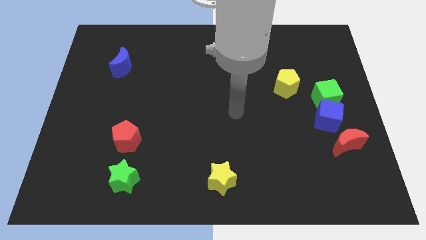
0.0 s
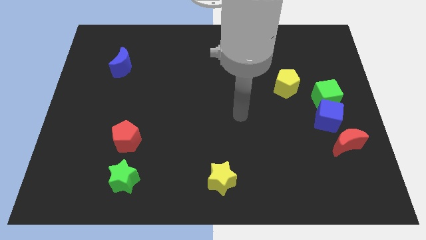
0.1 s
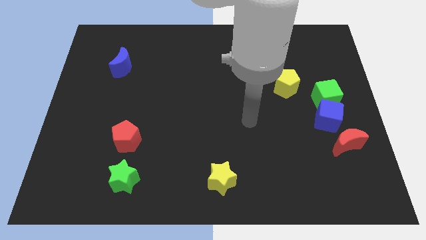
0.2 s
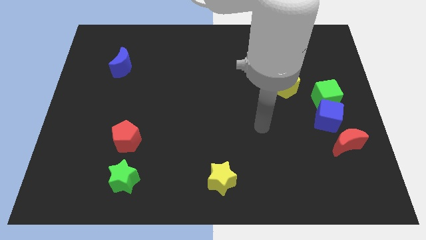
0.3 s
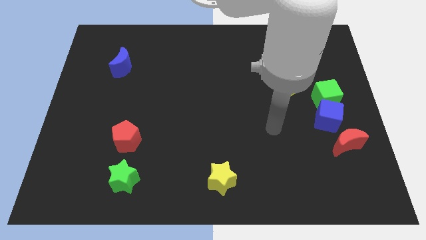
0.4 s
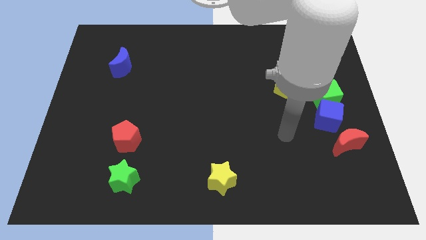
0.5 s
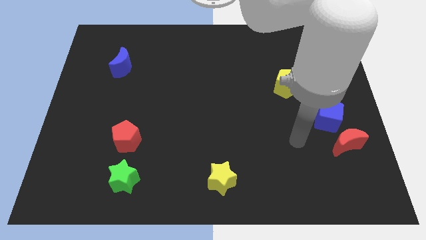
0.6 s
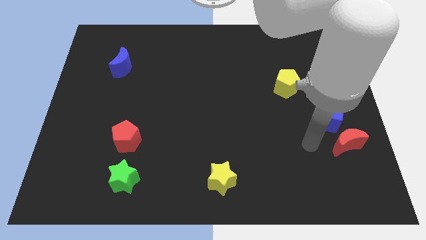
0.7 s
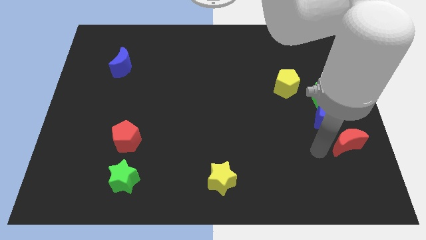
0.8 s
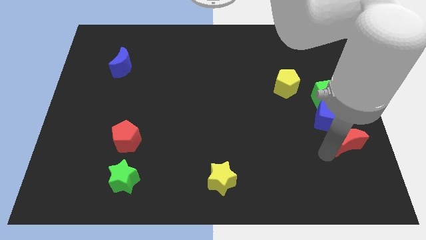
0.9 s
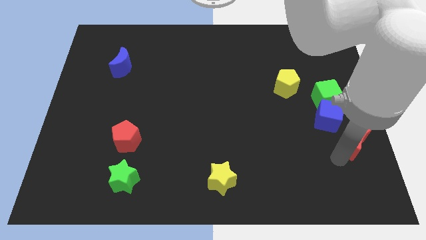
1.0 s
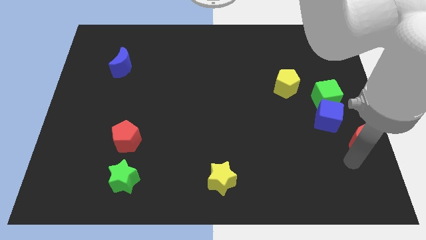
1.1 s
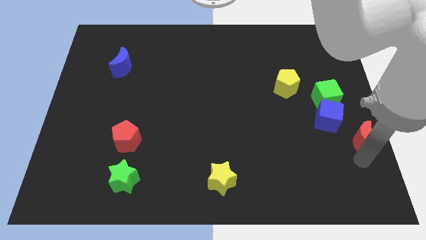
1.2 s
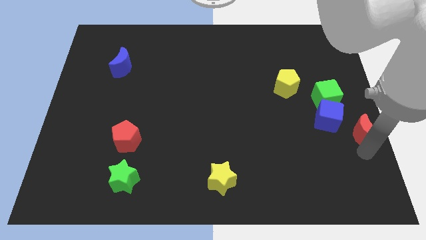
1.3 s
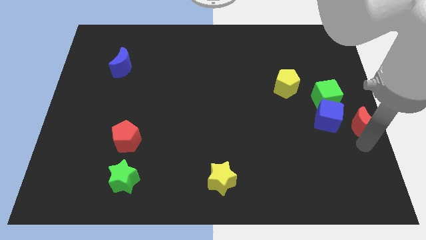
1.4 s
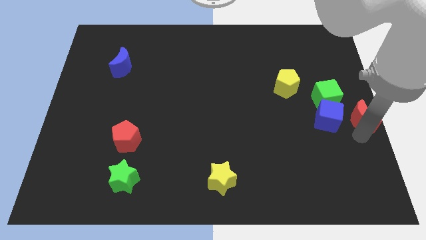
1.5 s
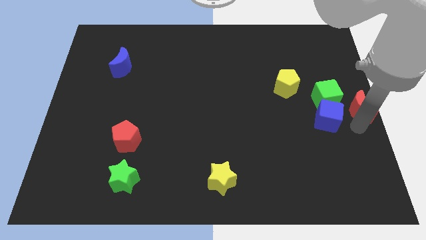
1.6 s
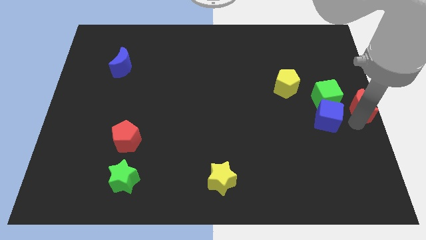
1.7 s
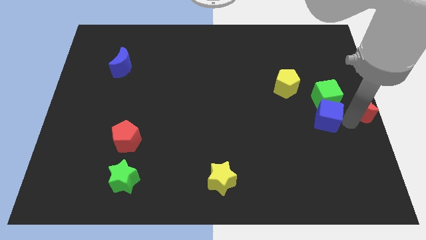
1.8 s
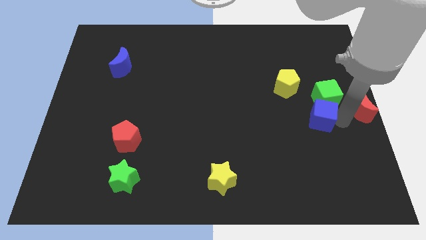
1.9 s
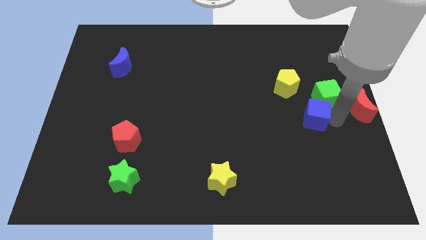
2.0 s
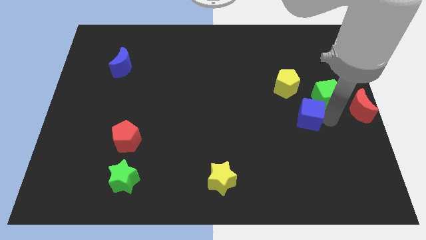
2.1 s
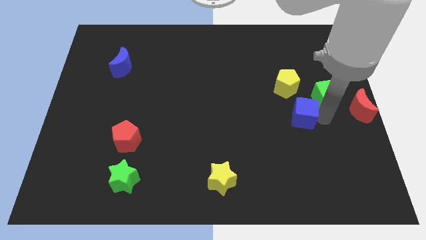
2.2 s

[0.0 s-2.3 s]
pull the blue cube apart from the green cube and red moon

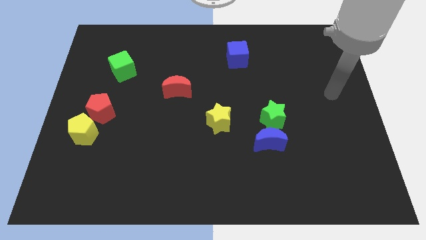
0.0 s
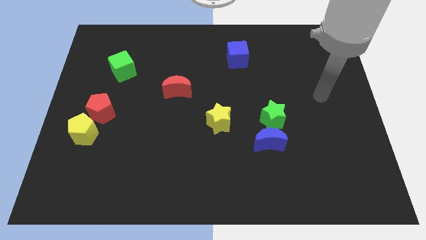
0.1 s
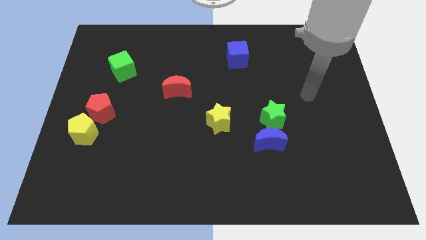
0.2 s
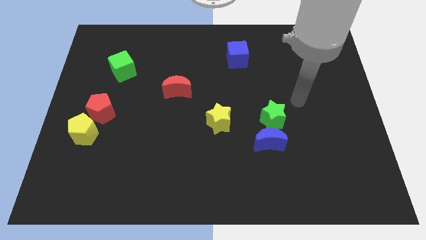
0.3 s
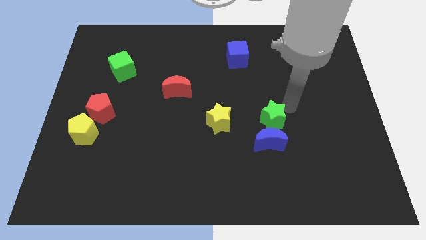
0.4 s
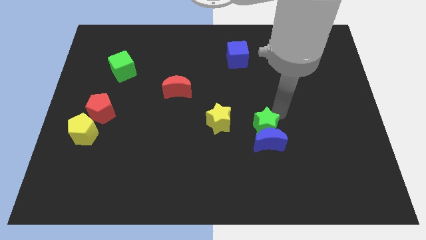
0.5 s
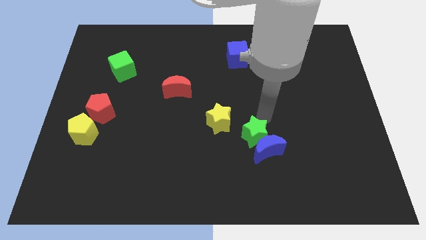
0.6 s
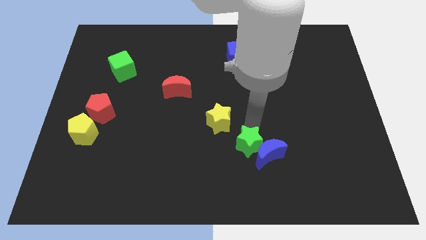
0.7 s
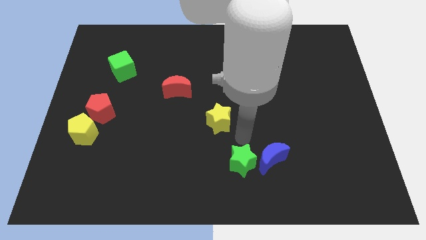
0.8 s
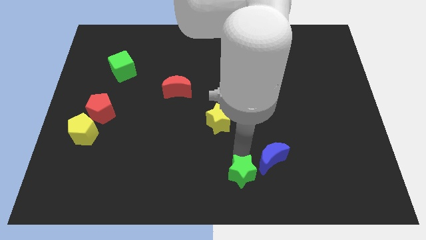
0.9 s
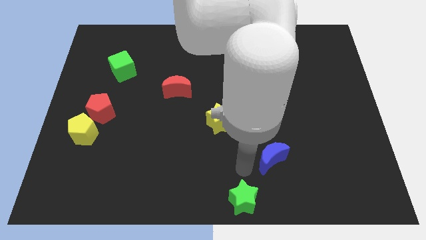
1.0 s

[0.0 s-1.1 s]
move the blue moon away from the green star

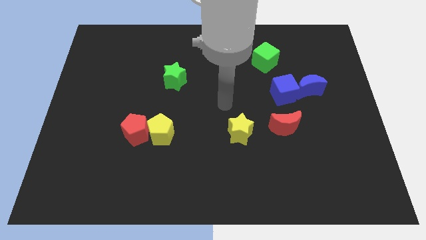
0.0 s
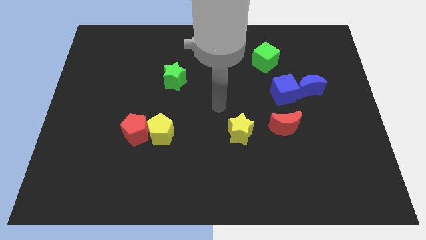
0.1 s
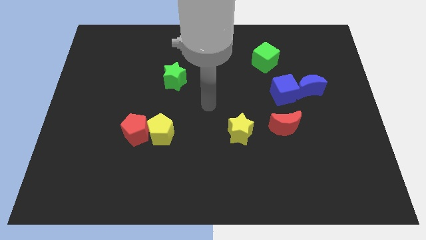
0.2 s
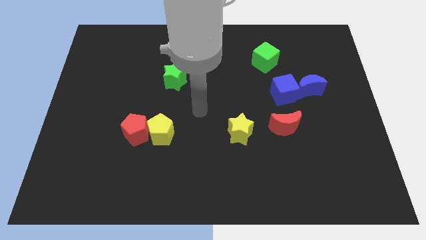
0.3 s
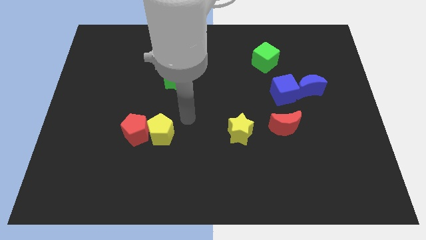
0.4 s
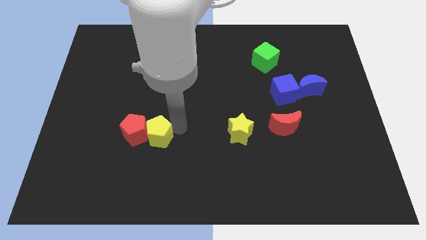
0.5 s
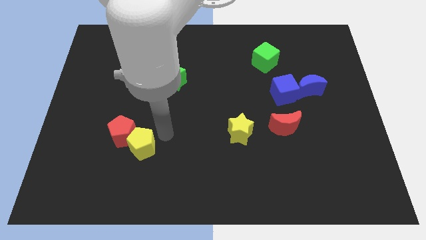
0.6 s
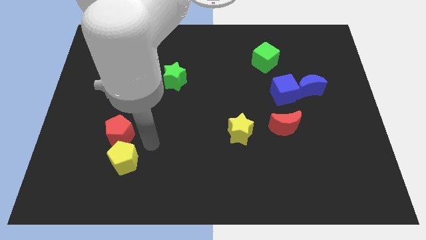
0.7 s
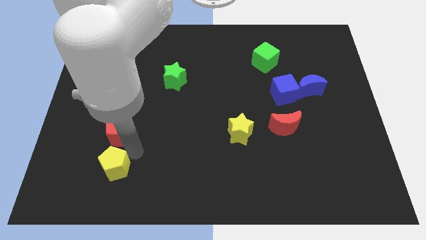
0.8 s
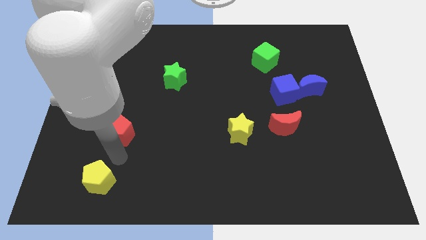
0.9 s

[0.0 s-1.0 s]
pull the red pentagon apart from the yellow pentagon

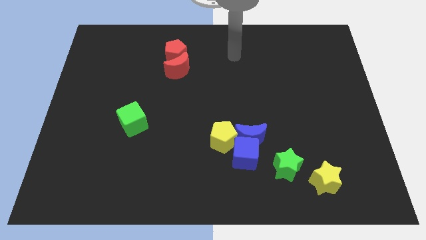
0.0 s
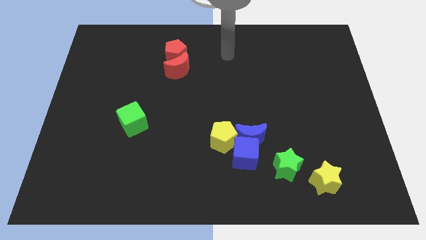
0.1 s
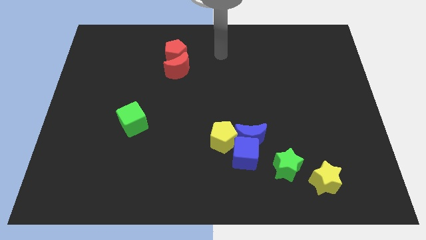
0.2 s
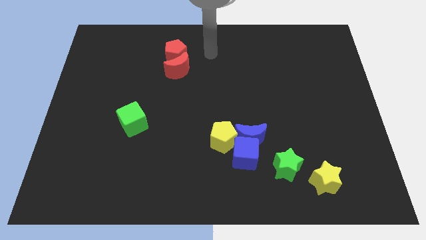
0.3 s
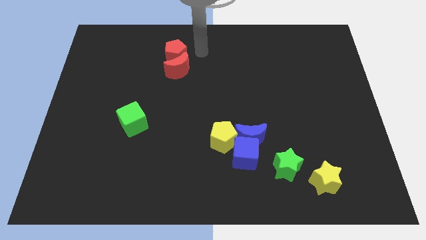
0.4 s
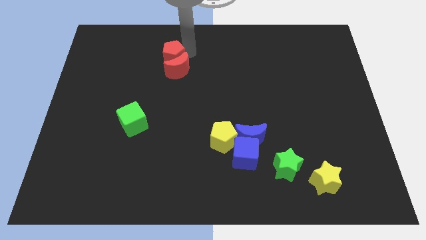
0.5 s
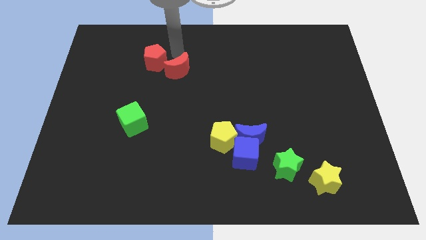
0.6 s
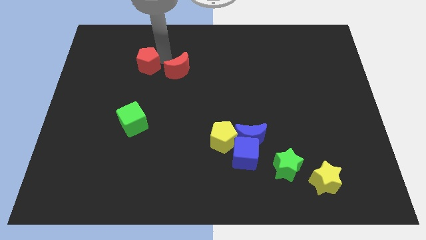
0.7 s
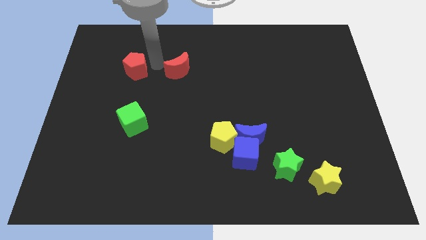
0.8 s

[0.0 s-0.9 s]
move the red moon away from the red pentagon

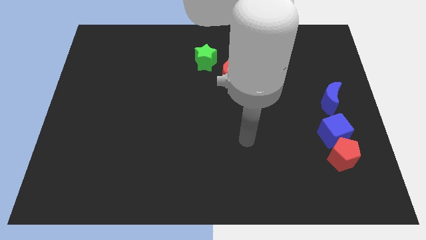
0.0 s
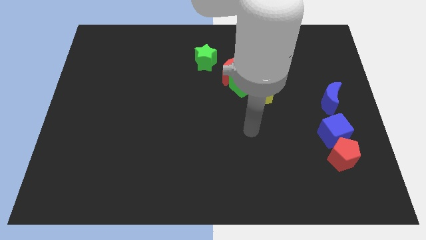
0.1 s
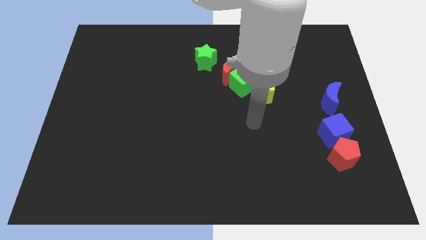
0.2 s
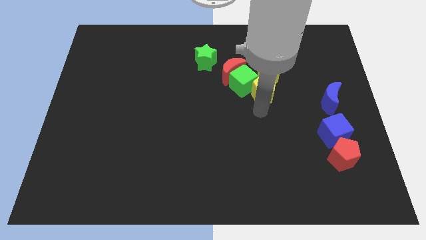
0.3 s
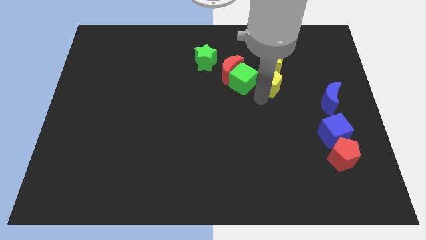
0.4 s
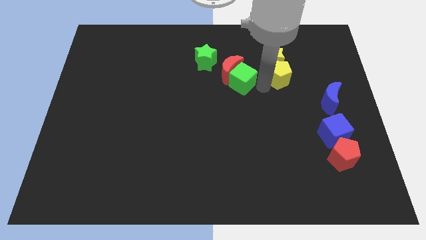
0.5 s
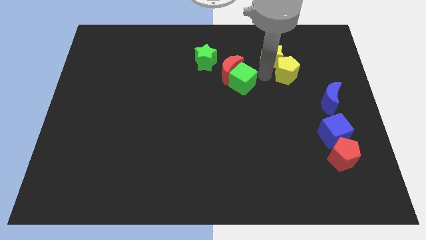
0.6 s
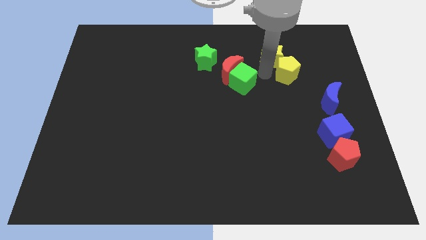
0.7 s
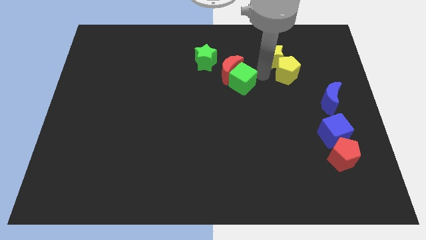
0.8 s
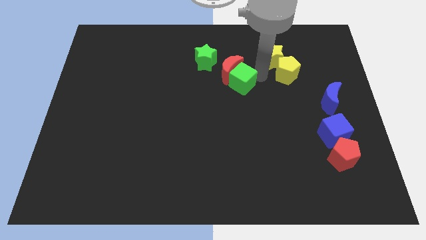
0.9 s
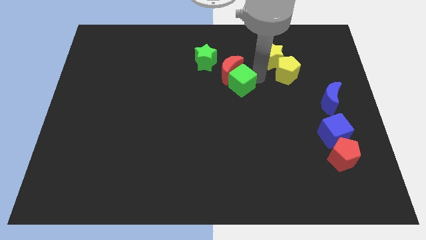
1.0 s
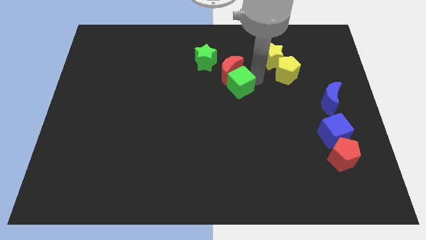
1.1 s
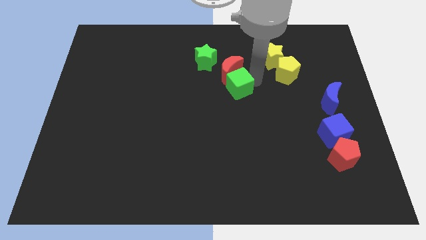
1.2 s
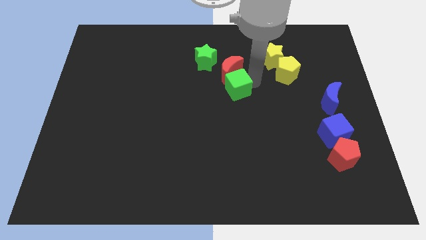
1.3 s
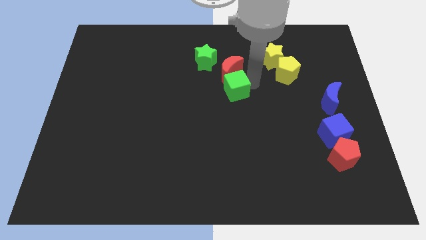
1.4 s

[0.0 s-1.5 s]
move the green cube away from the clump

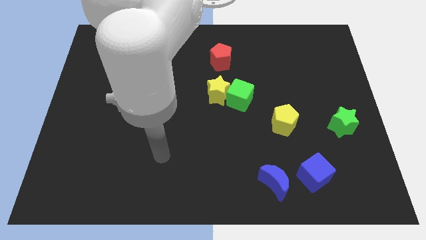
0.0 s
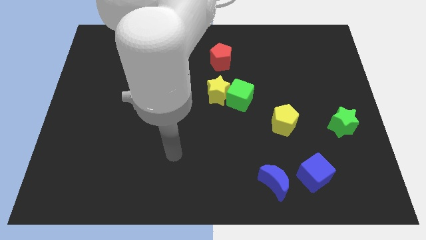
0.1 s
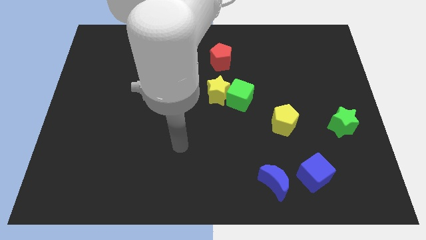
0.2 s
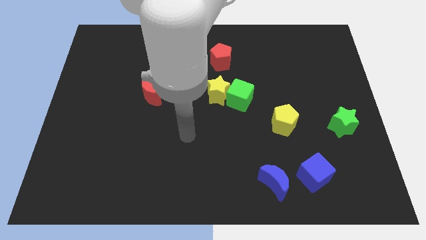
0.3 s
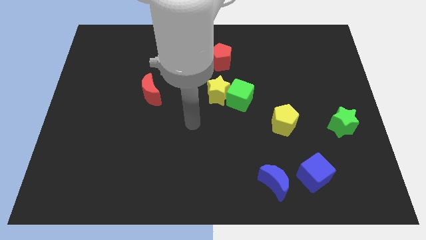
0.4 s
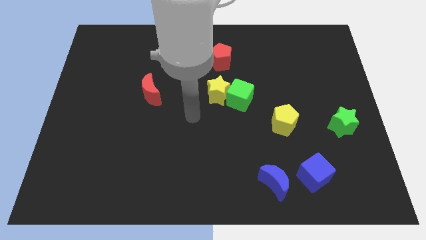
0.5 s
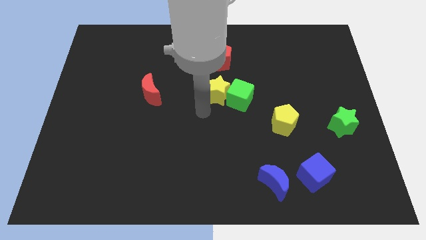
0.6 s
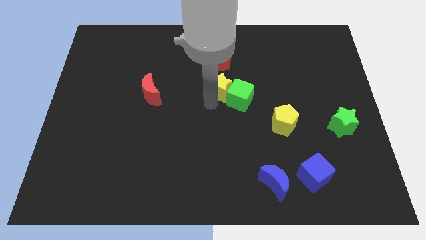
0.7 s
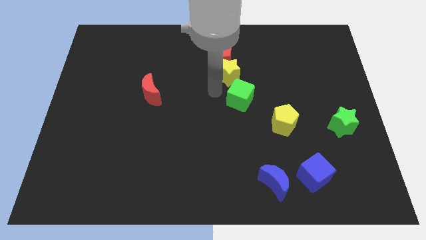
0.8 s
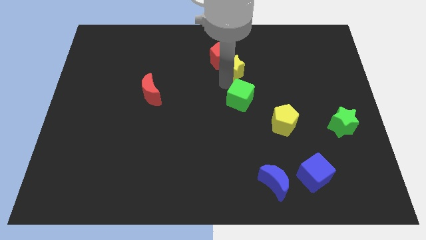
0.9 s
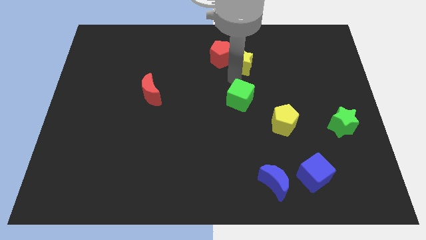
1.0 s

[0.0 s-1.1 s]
pull the green cube apart from the yellow star

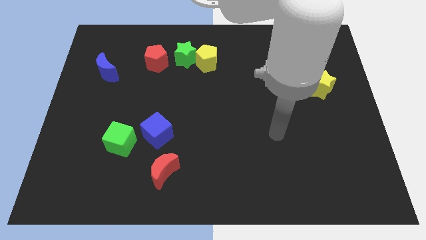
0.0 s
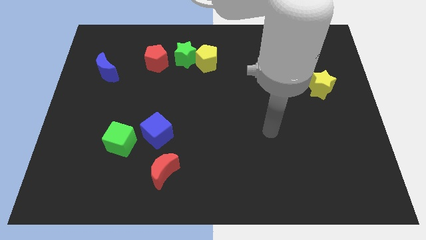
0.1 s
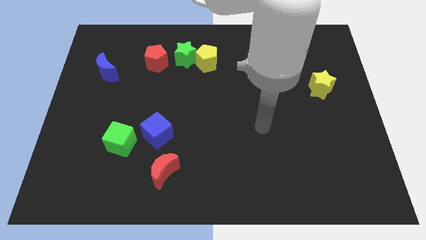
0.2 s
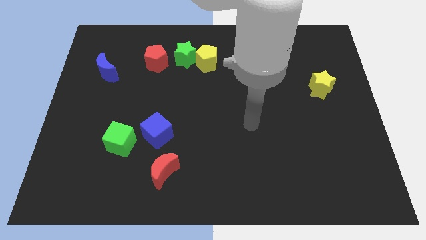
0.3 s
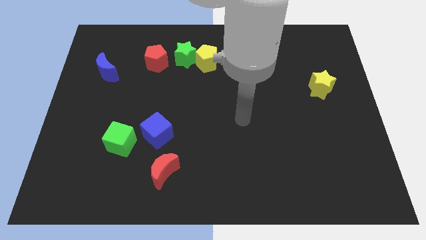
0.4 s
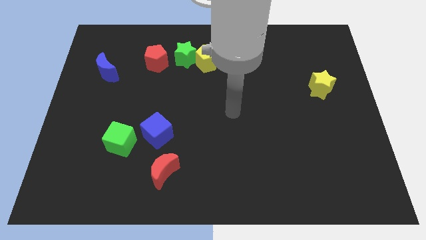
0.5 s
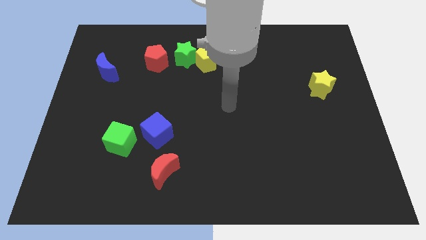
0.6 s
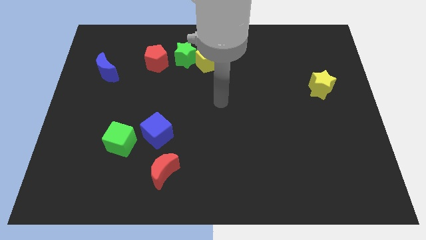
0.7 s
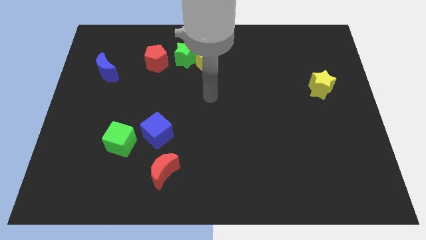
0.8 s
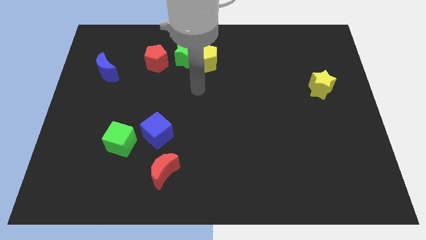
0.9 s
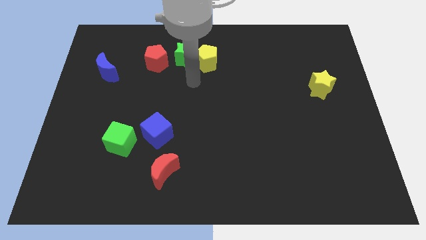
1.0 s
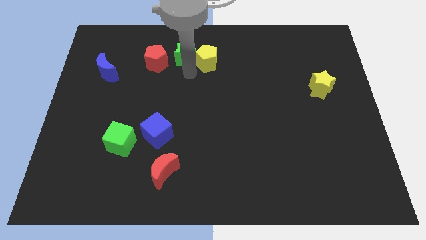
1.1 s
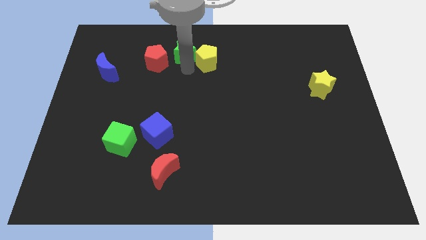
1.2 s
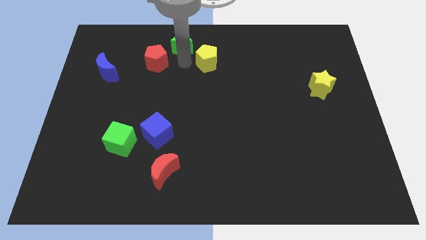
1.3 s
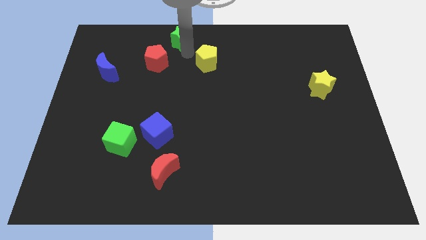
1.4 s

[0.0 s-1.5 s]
separate the yellow pentagon from the green star
